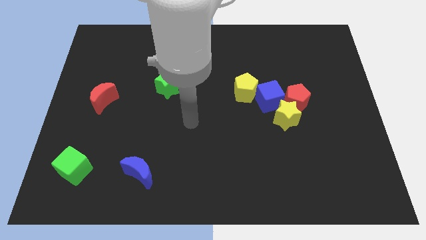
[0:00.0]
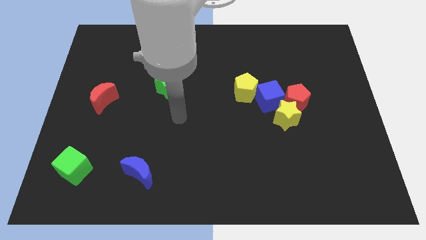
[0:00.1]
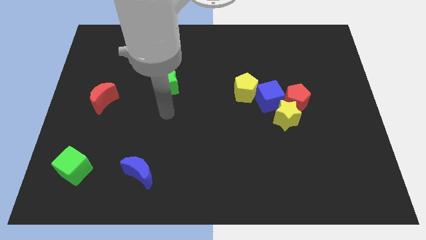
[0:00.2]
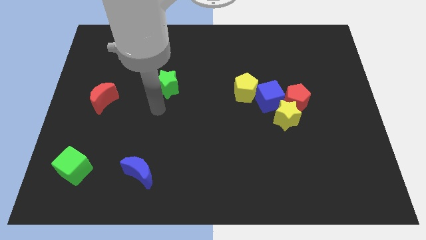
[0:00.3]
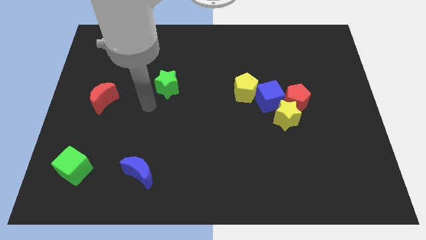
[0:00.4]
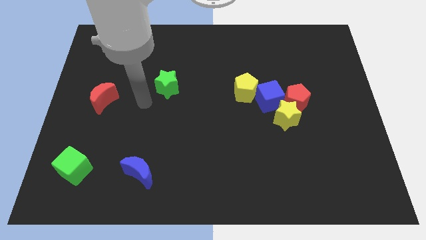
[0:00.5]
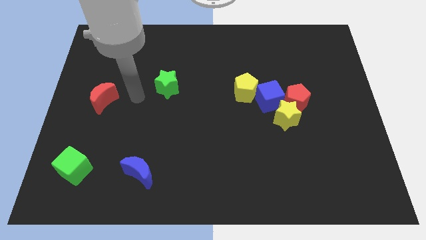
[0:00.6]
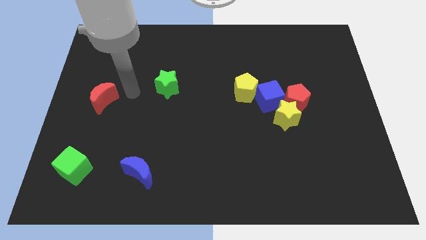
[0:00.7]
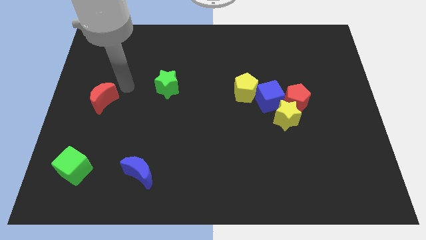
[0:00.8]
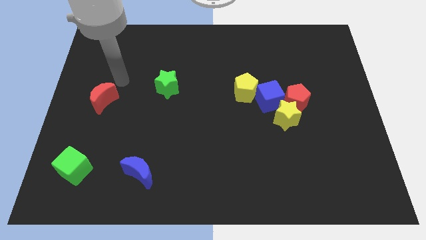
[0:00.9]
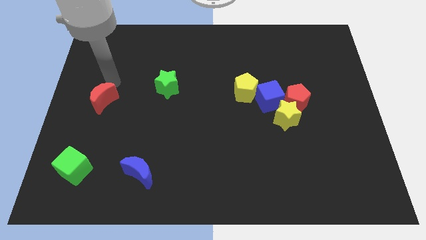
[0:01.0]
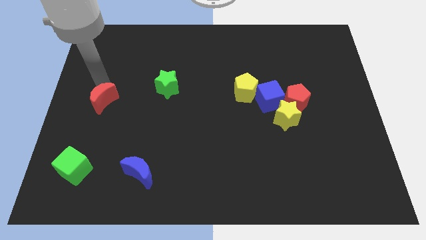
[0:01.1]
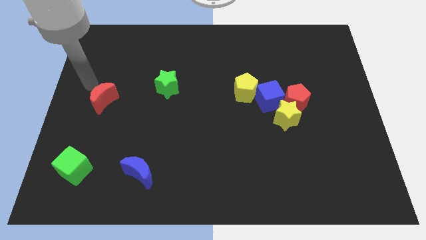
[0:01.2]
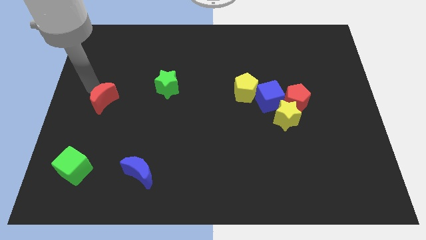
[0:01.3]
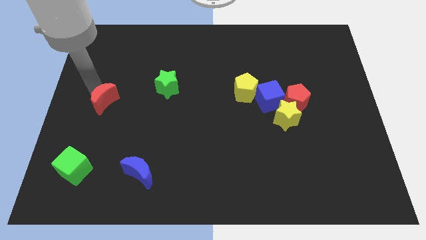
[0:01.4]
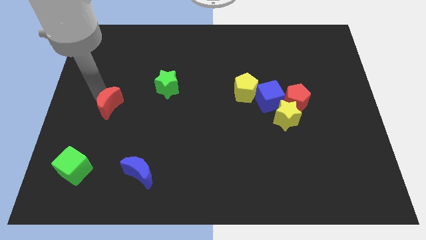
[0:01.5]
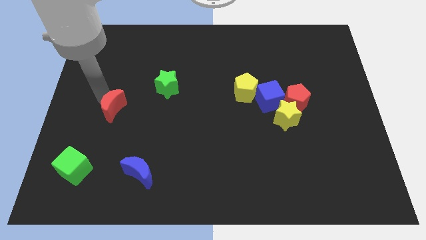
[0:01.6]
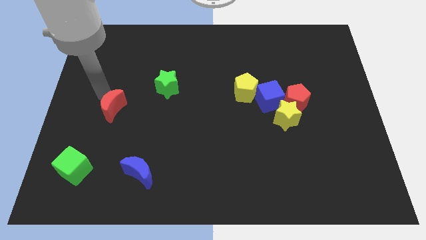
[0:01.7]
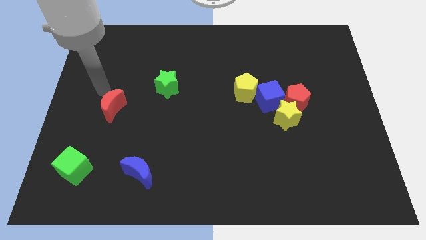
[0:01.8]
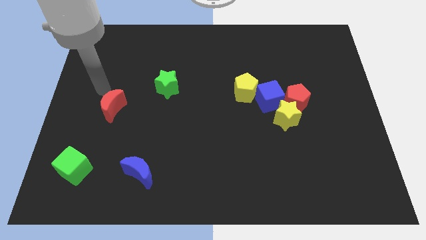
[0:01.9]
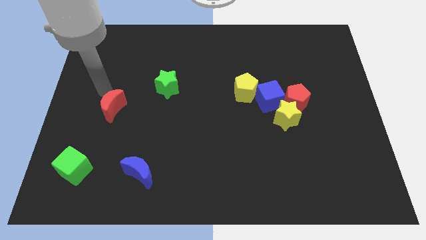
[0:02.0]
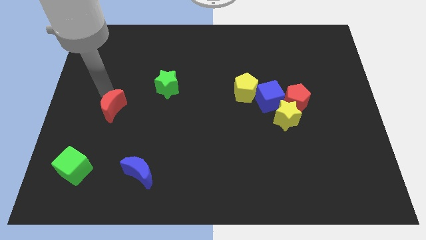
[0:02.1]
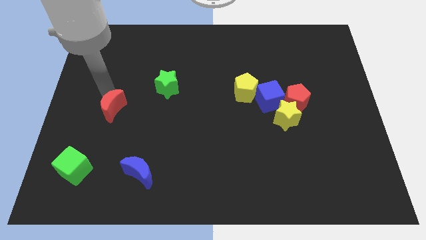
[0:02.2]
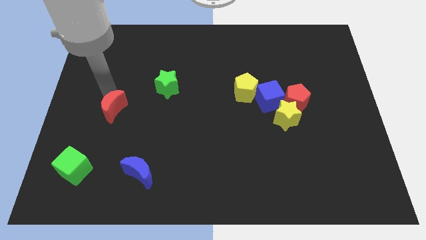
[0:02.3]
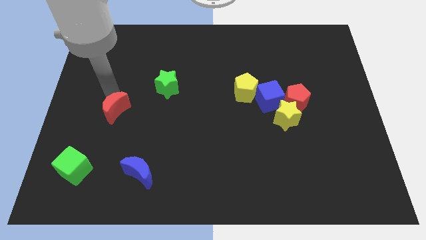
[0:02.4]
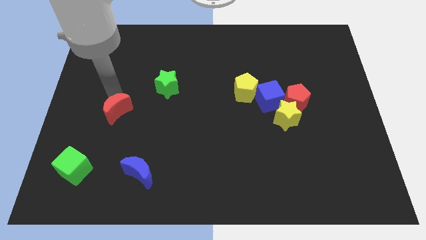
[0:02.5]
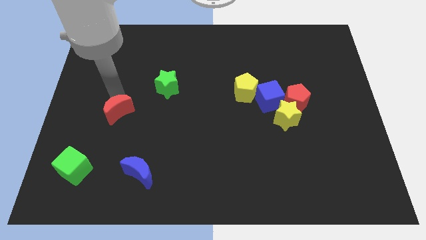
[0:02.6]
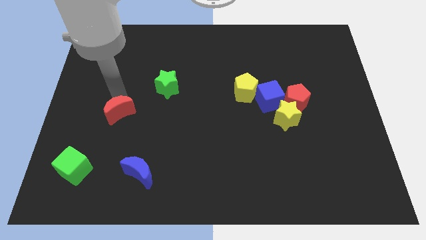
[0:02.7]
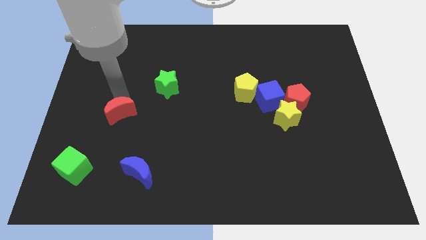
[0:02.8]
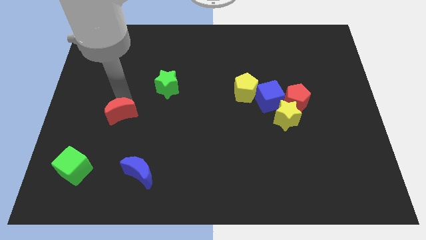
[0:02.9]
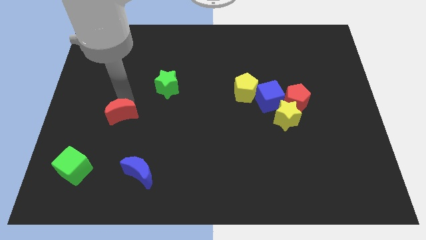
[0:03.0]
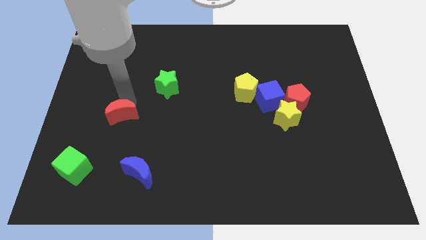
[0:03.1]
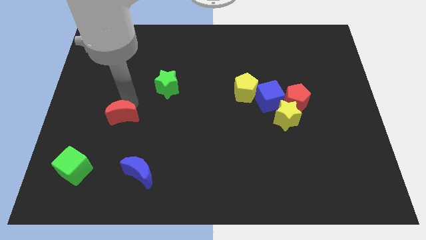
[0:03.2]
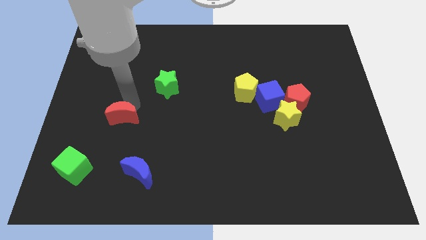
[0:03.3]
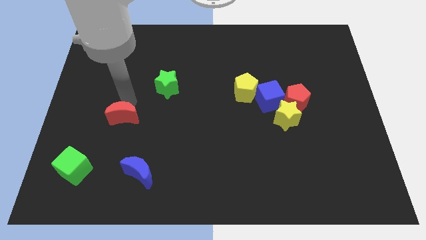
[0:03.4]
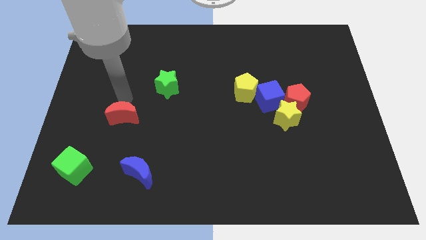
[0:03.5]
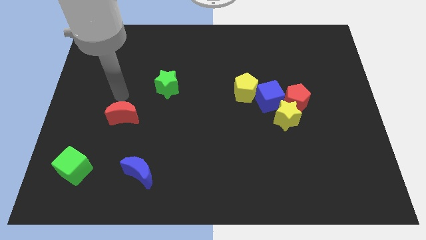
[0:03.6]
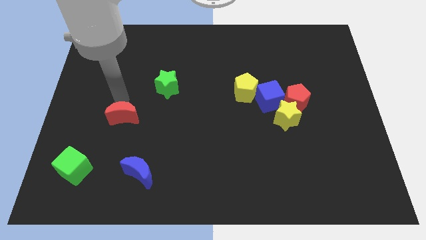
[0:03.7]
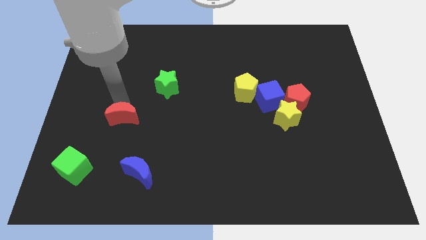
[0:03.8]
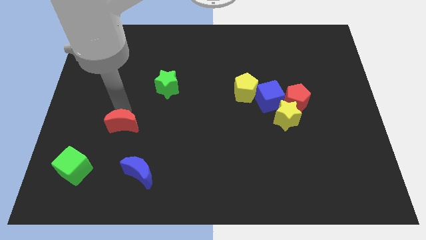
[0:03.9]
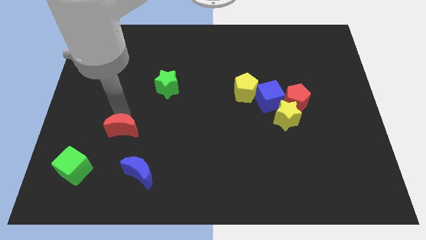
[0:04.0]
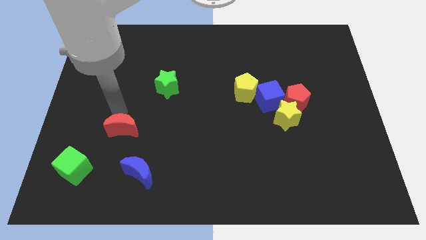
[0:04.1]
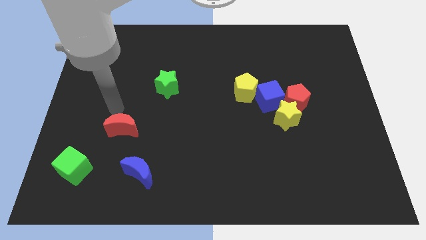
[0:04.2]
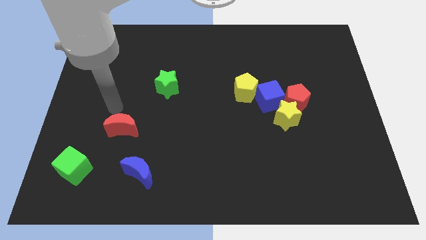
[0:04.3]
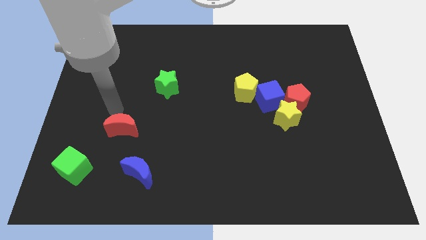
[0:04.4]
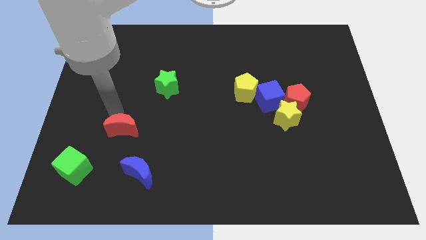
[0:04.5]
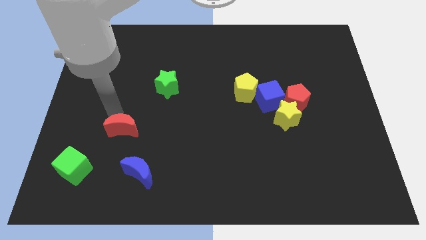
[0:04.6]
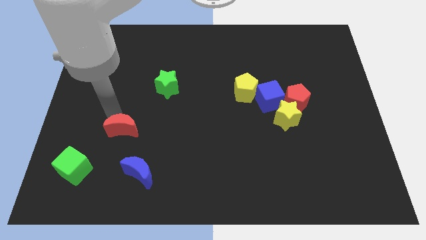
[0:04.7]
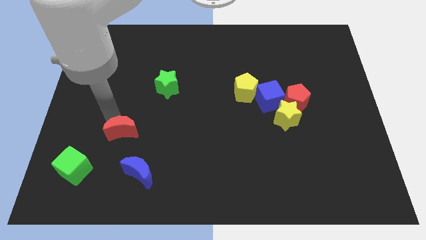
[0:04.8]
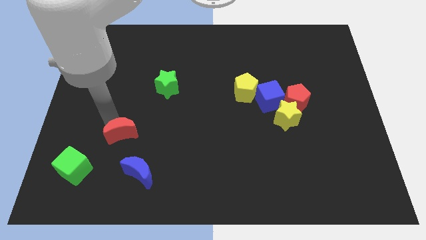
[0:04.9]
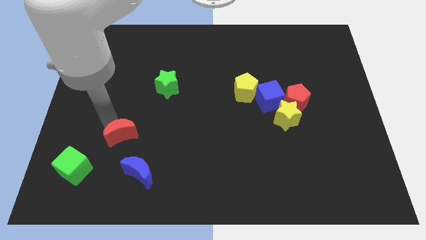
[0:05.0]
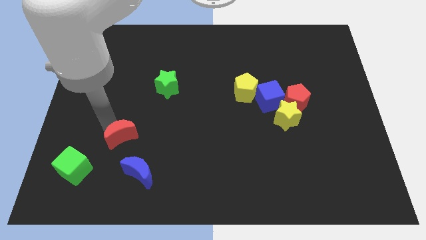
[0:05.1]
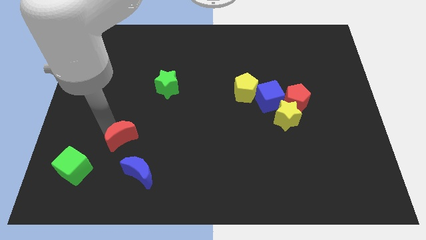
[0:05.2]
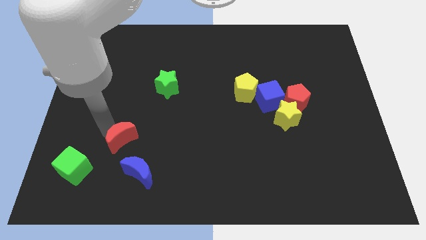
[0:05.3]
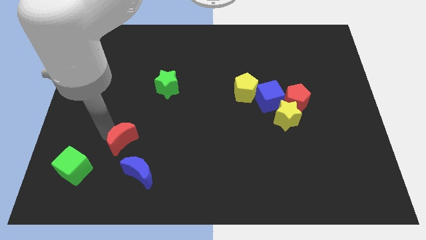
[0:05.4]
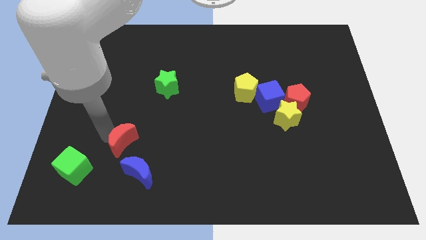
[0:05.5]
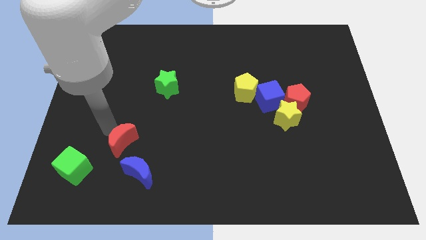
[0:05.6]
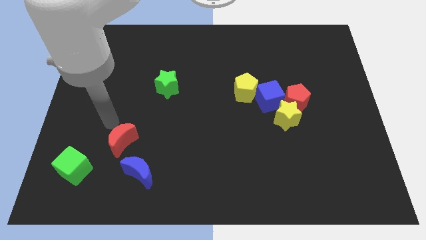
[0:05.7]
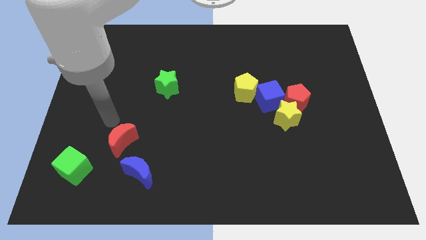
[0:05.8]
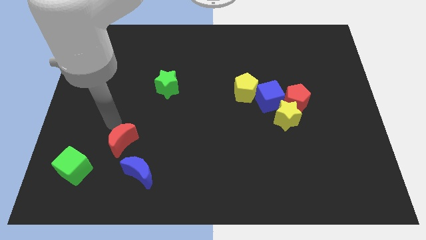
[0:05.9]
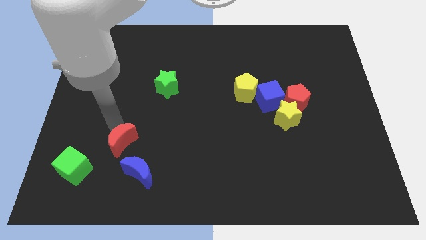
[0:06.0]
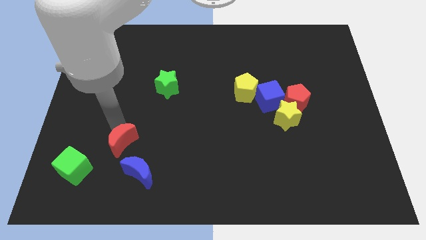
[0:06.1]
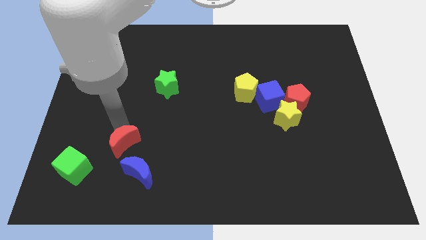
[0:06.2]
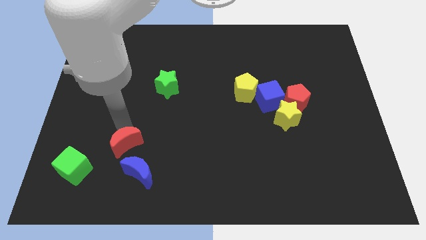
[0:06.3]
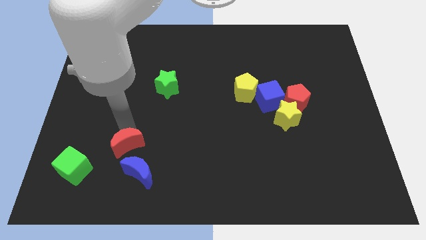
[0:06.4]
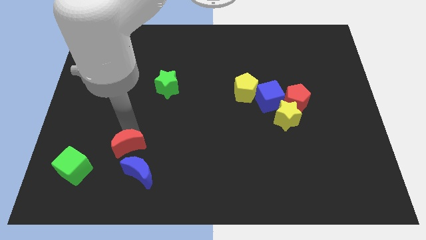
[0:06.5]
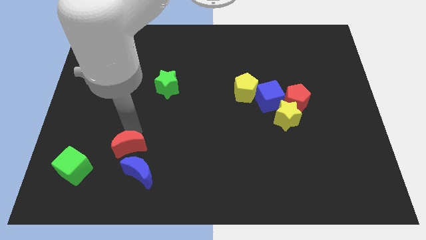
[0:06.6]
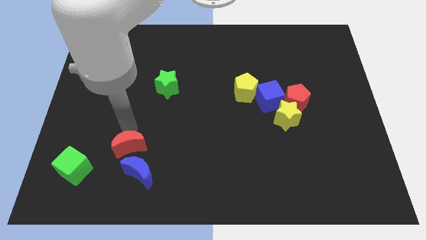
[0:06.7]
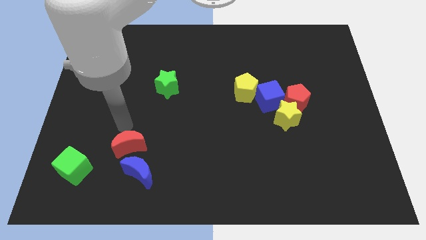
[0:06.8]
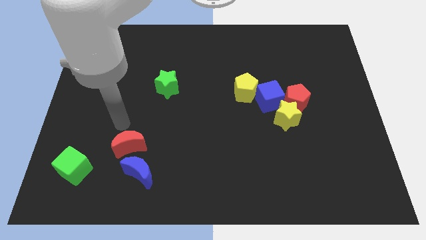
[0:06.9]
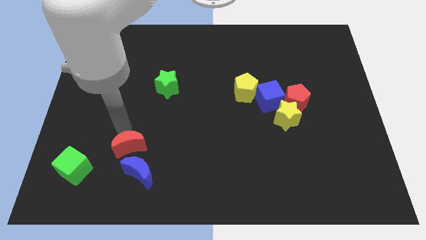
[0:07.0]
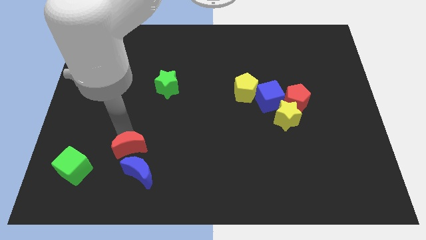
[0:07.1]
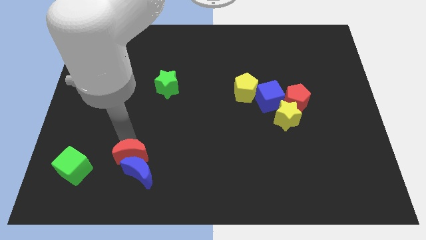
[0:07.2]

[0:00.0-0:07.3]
slide the red moon close to the blue moon
